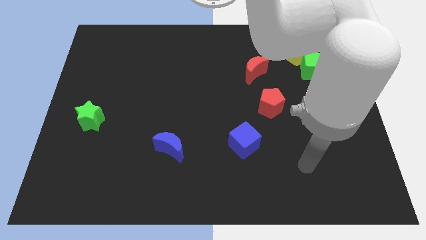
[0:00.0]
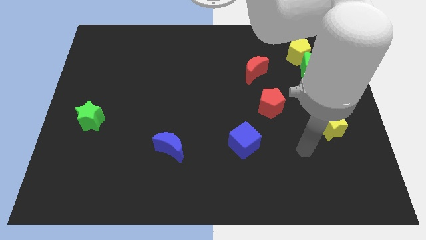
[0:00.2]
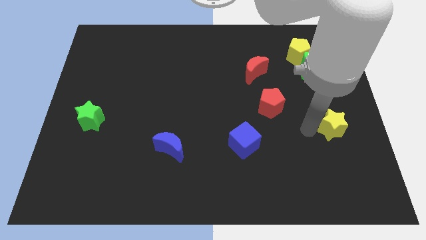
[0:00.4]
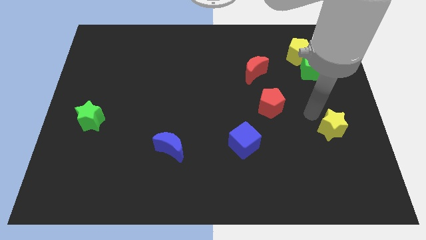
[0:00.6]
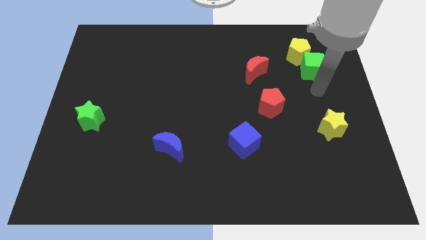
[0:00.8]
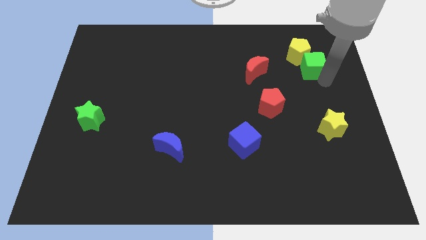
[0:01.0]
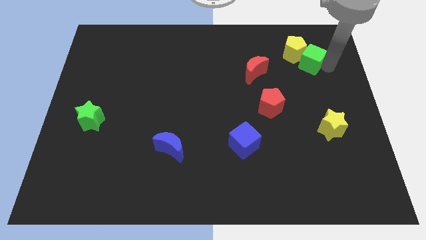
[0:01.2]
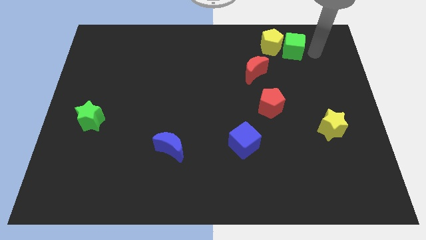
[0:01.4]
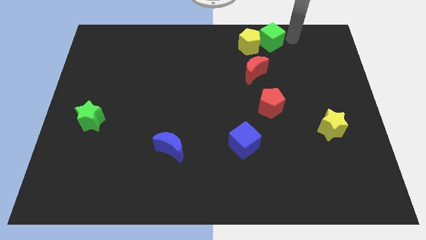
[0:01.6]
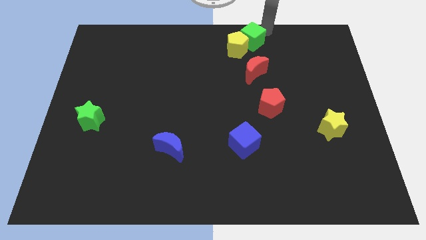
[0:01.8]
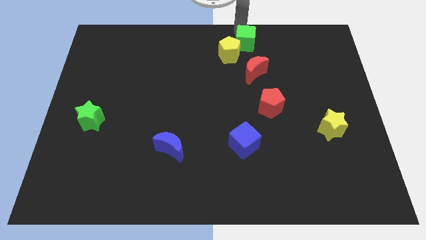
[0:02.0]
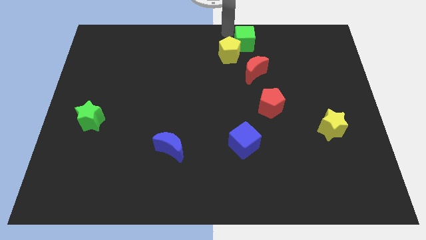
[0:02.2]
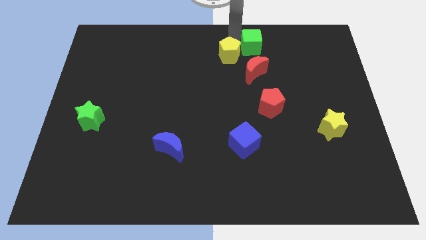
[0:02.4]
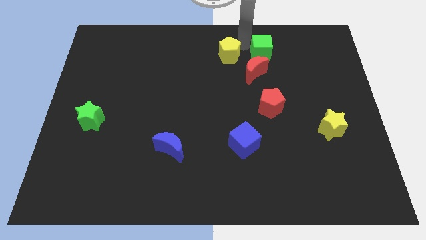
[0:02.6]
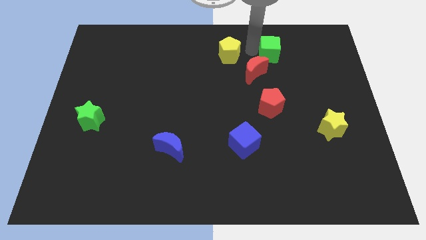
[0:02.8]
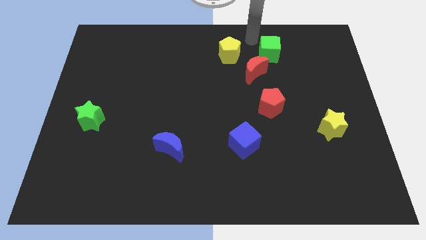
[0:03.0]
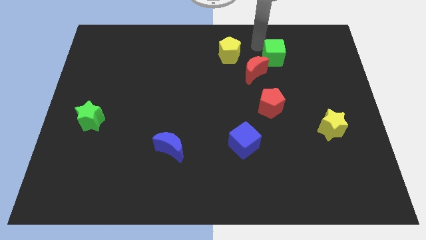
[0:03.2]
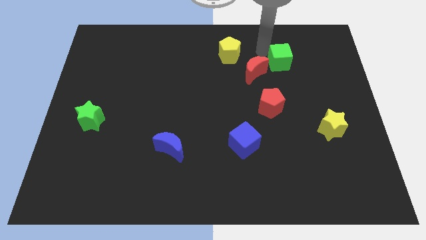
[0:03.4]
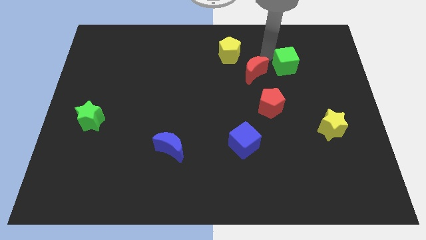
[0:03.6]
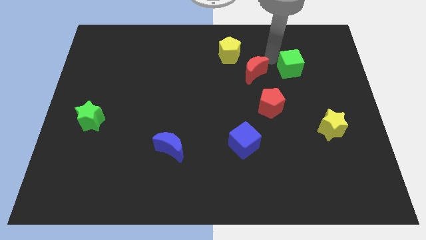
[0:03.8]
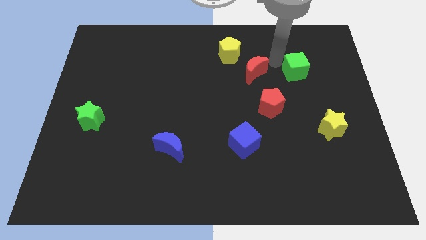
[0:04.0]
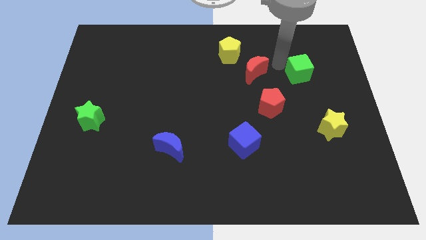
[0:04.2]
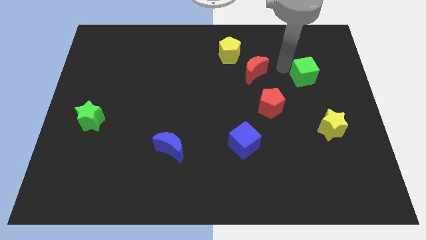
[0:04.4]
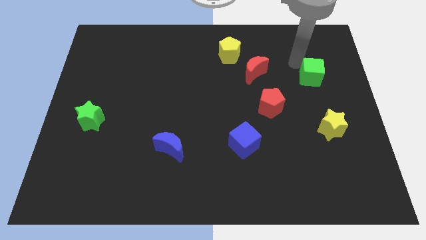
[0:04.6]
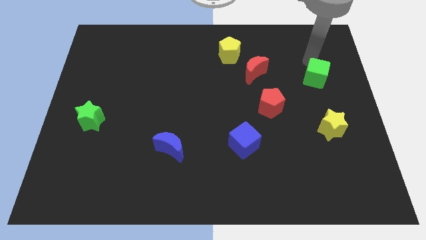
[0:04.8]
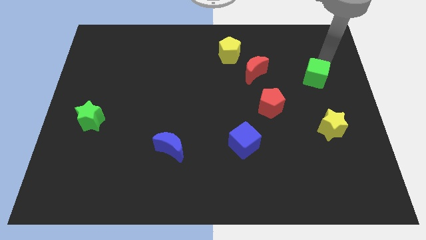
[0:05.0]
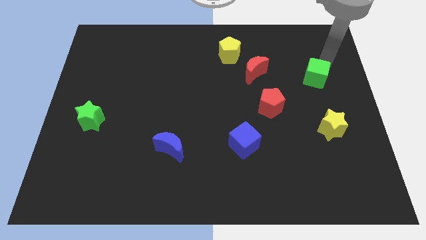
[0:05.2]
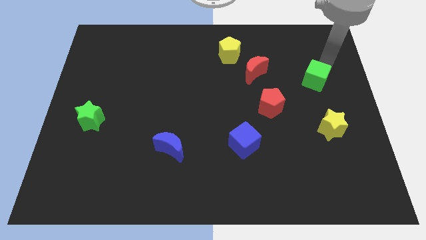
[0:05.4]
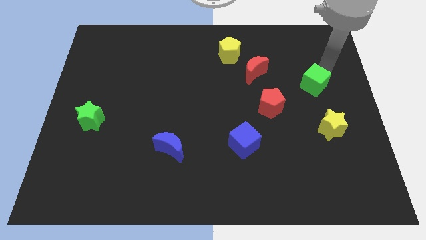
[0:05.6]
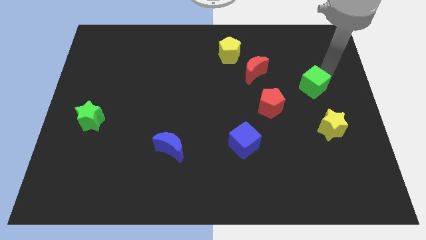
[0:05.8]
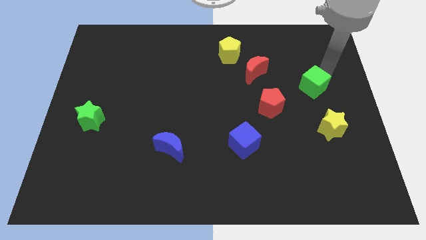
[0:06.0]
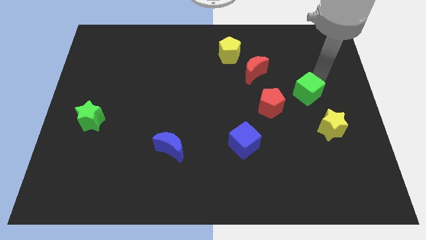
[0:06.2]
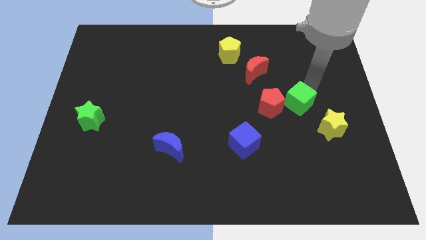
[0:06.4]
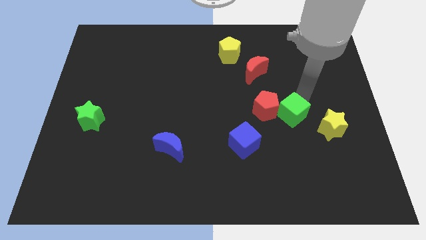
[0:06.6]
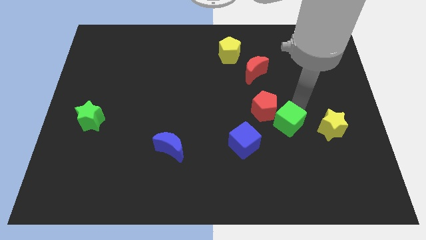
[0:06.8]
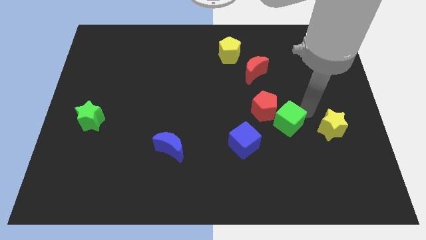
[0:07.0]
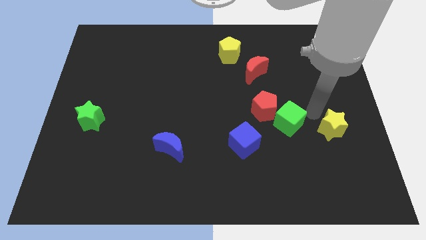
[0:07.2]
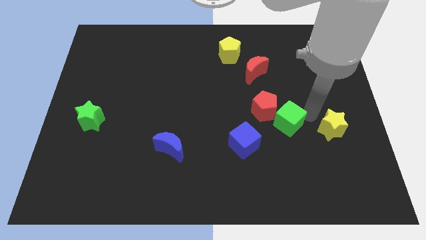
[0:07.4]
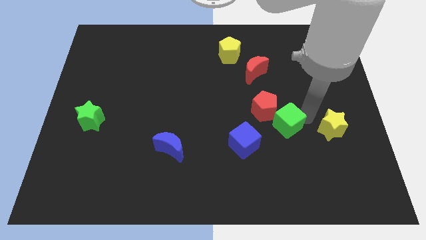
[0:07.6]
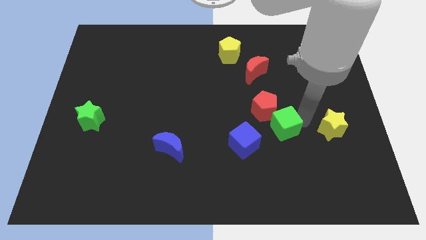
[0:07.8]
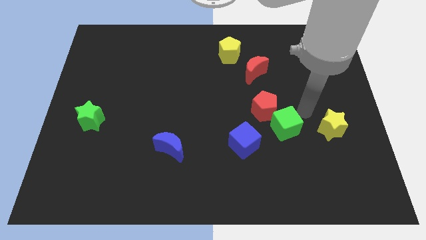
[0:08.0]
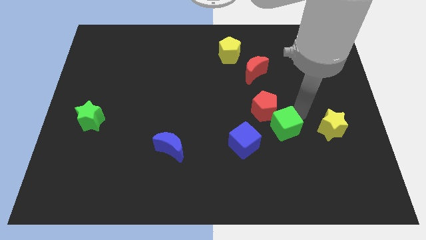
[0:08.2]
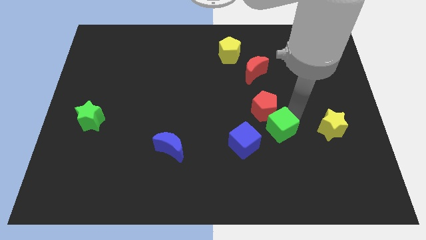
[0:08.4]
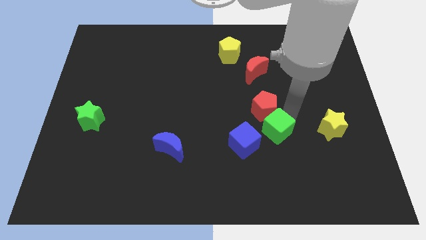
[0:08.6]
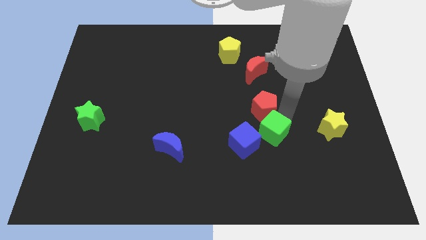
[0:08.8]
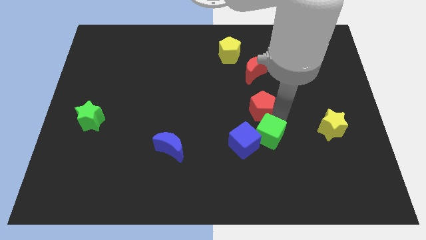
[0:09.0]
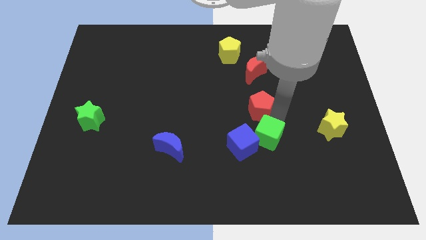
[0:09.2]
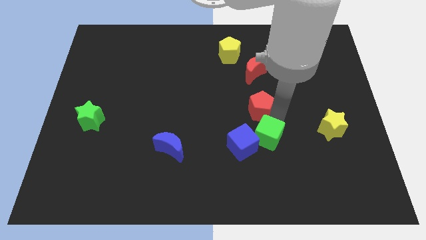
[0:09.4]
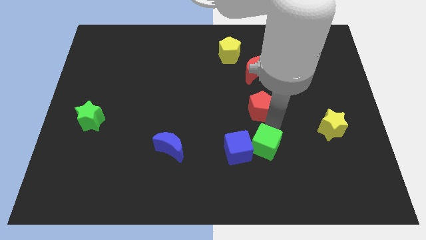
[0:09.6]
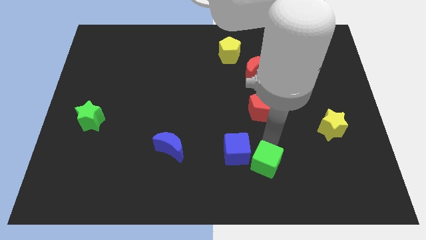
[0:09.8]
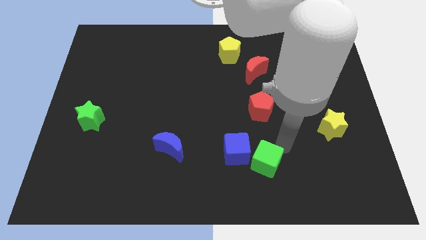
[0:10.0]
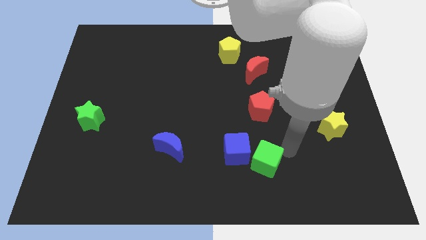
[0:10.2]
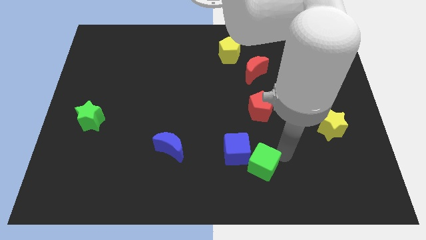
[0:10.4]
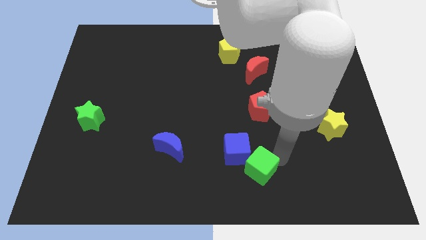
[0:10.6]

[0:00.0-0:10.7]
push the green cube to the bottom

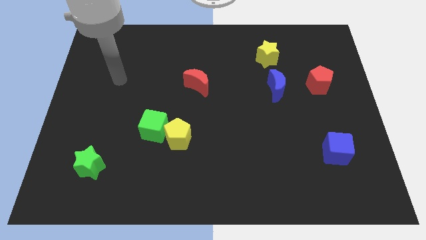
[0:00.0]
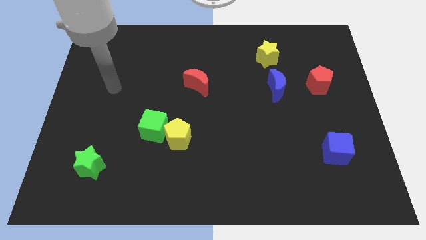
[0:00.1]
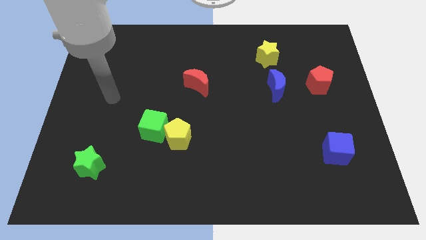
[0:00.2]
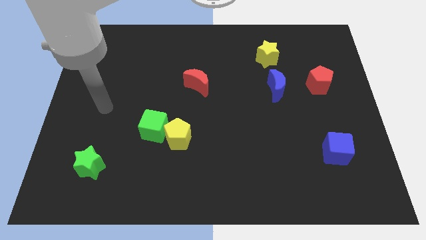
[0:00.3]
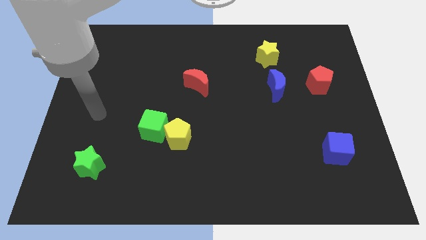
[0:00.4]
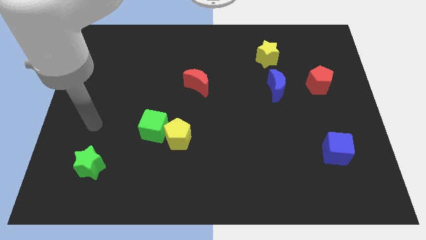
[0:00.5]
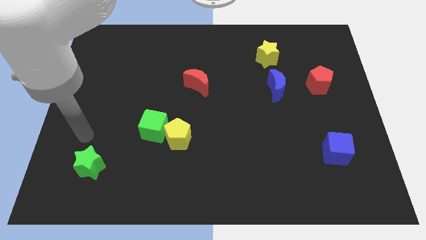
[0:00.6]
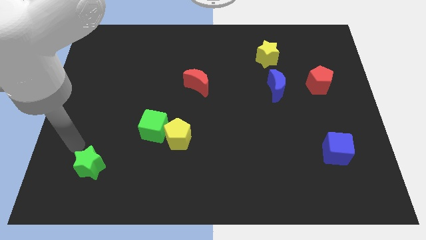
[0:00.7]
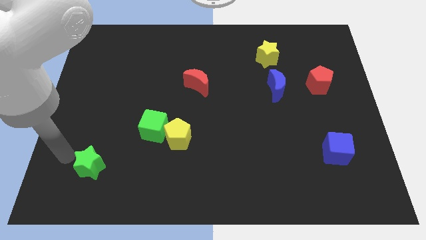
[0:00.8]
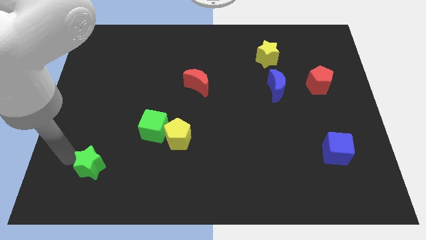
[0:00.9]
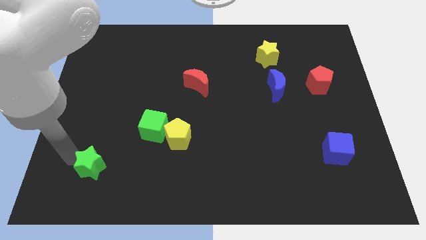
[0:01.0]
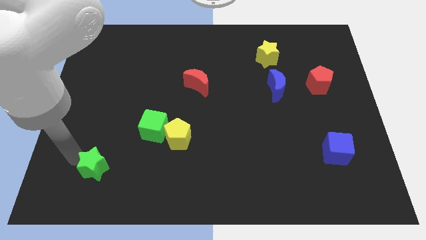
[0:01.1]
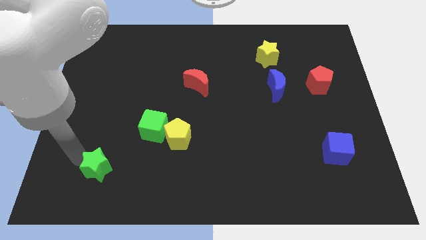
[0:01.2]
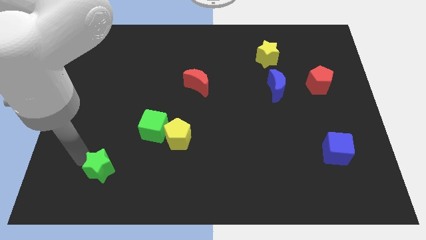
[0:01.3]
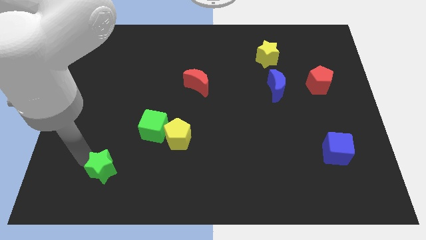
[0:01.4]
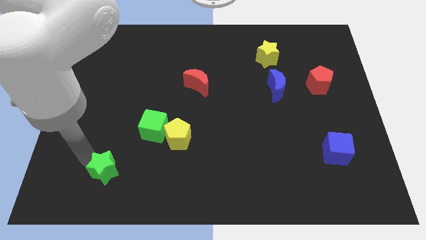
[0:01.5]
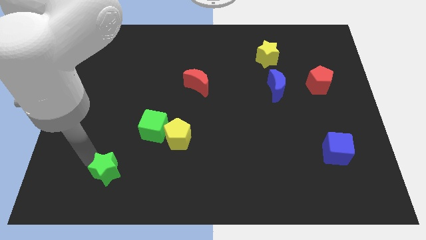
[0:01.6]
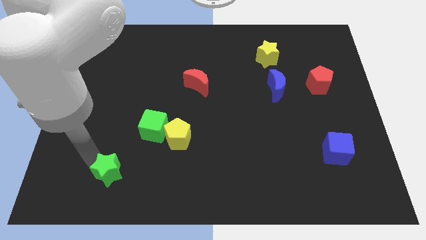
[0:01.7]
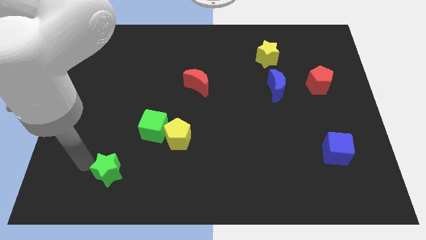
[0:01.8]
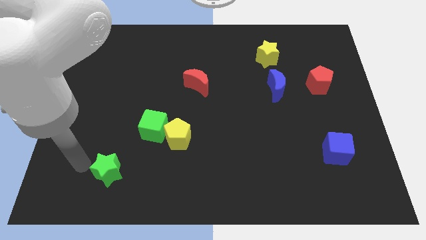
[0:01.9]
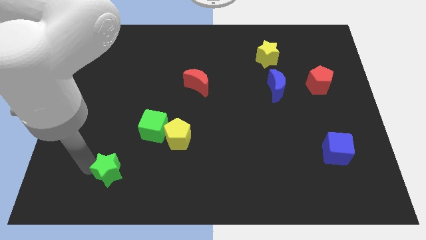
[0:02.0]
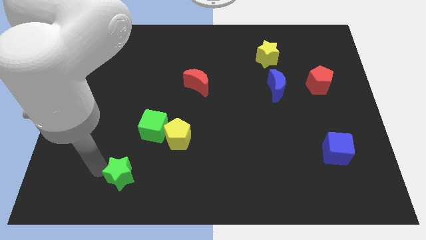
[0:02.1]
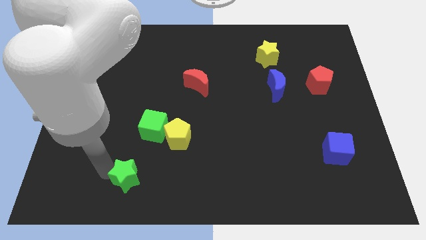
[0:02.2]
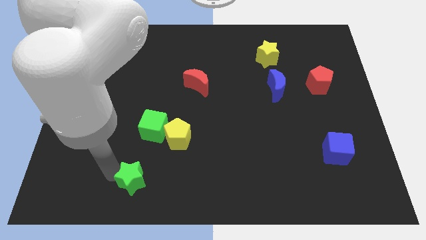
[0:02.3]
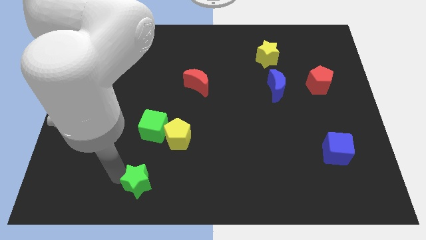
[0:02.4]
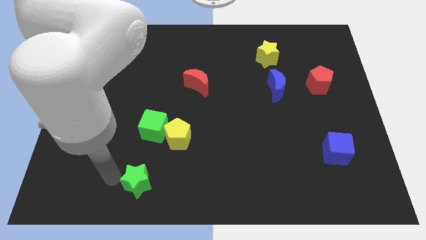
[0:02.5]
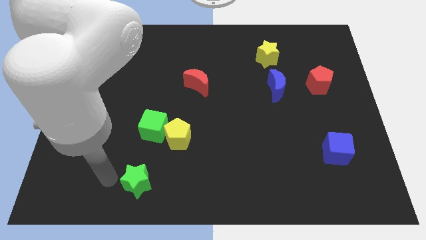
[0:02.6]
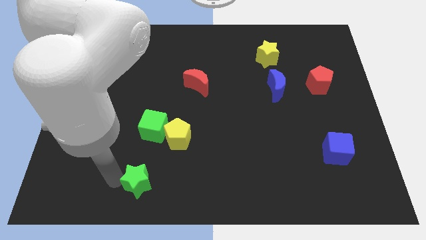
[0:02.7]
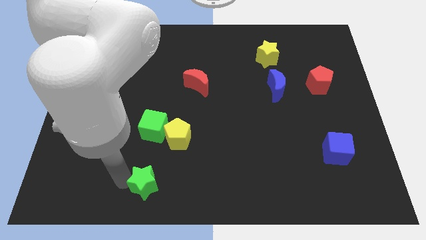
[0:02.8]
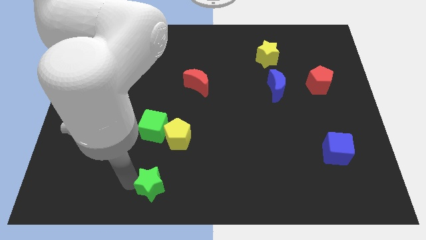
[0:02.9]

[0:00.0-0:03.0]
move the green star to the bottom side
